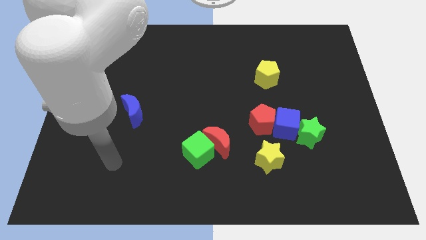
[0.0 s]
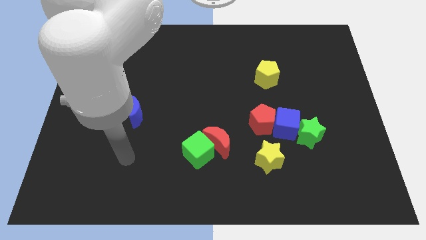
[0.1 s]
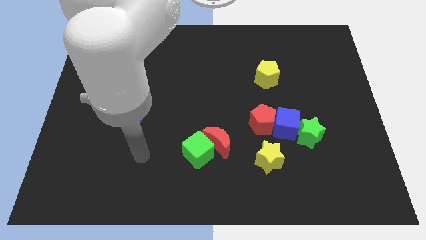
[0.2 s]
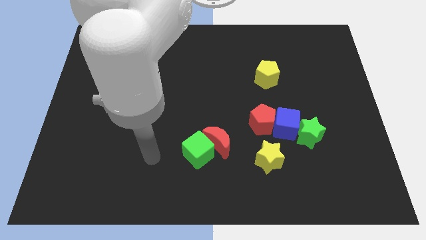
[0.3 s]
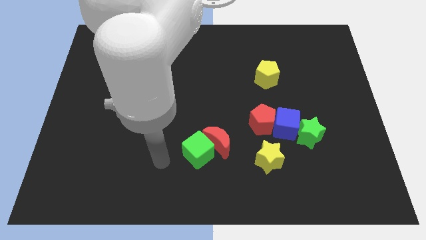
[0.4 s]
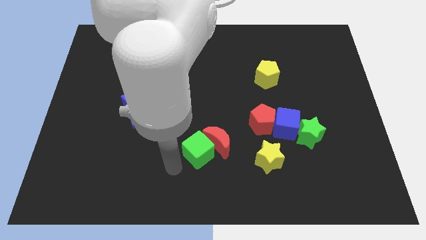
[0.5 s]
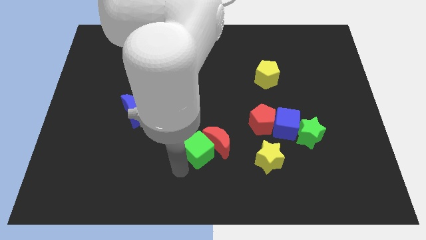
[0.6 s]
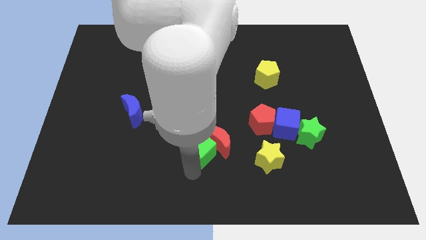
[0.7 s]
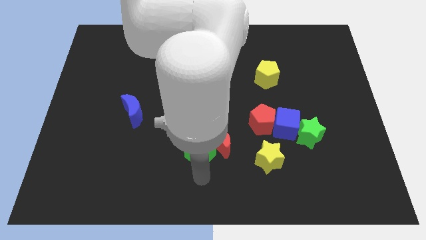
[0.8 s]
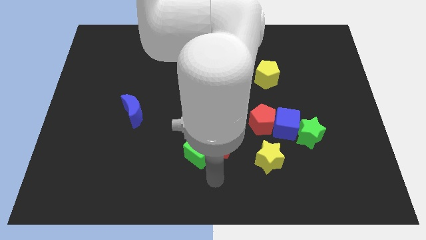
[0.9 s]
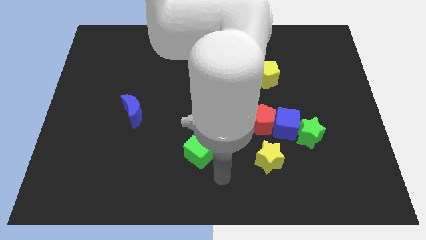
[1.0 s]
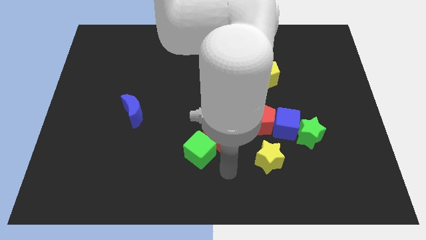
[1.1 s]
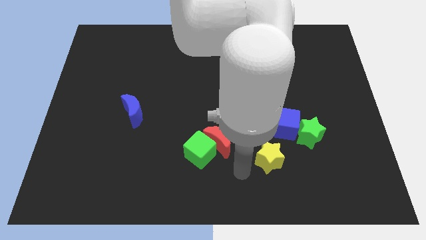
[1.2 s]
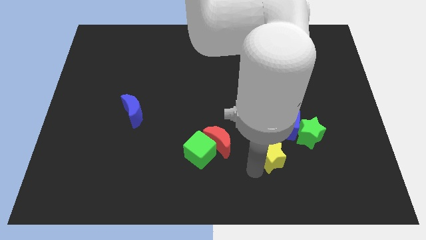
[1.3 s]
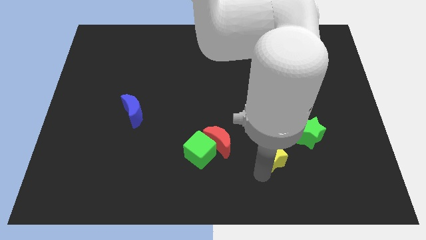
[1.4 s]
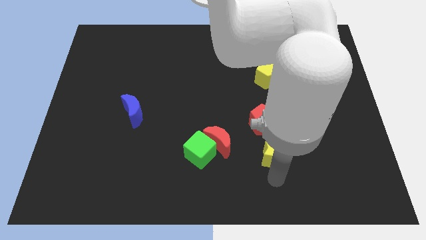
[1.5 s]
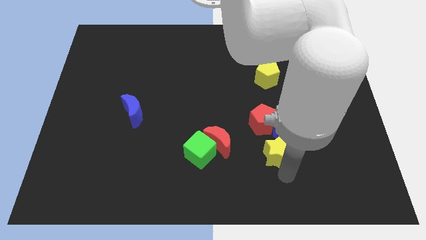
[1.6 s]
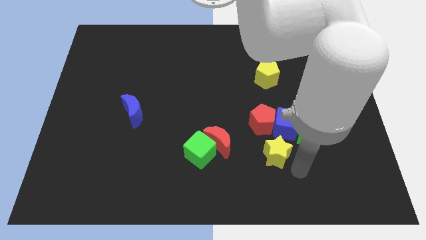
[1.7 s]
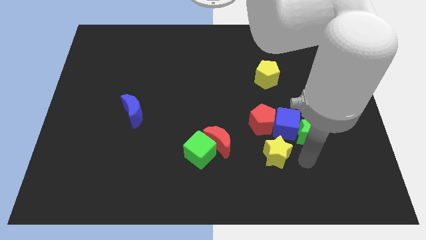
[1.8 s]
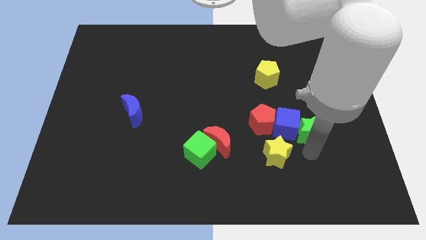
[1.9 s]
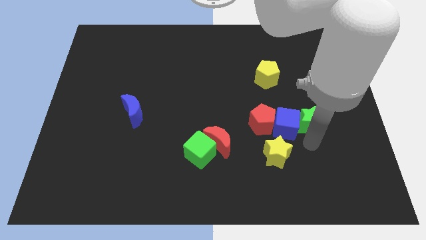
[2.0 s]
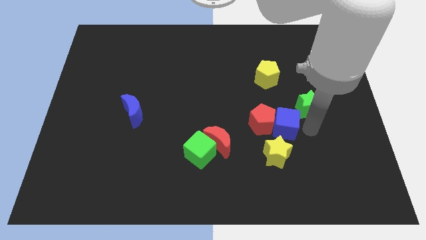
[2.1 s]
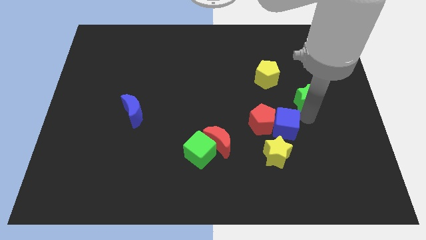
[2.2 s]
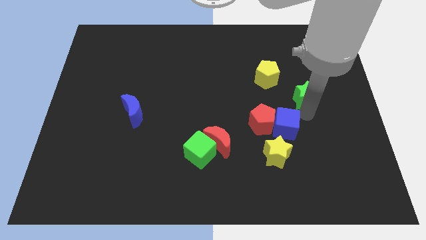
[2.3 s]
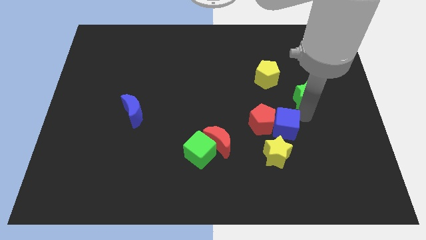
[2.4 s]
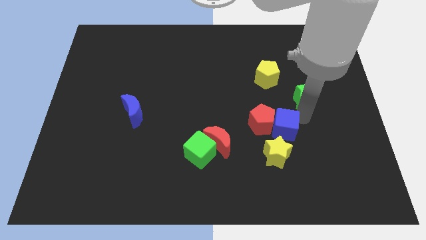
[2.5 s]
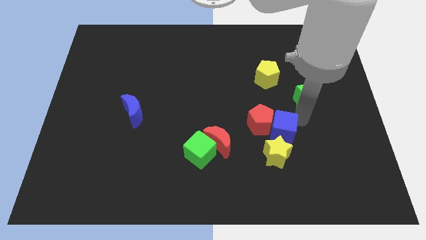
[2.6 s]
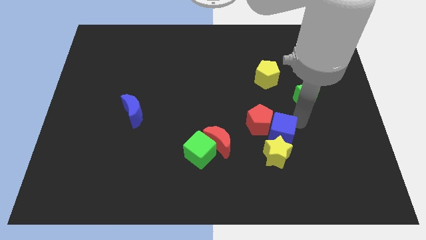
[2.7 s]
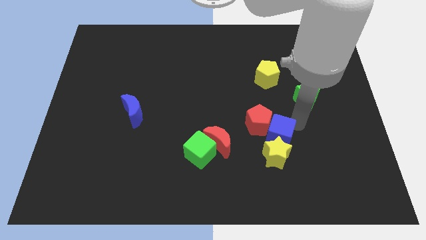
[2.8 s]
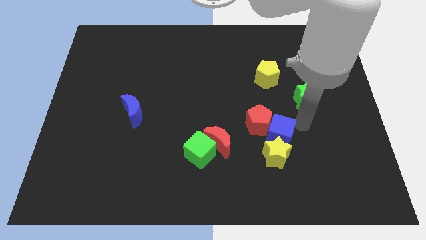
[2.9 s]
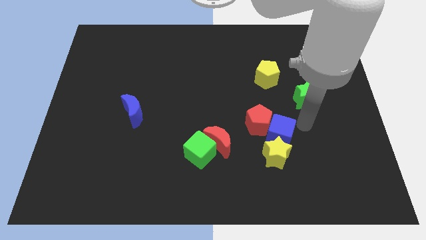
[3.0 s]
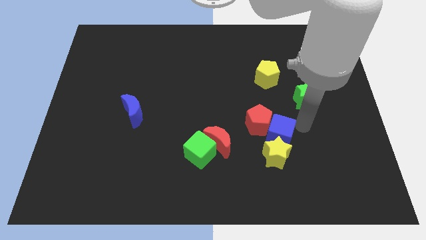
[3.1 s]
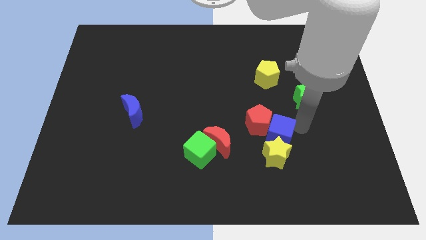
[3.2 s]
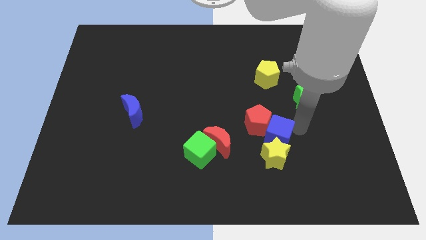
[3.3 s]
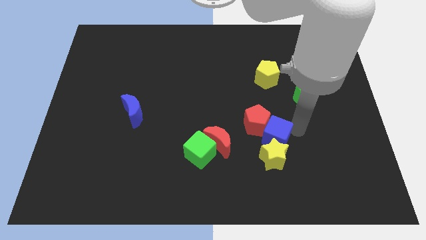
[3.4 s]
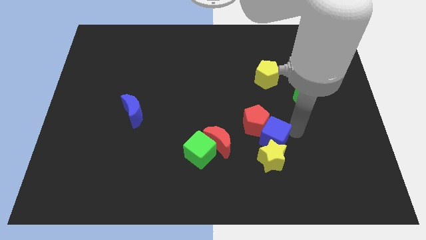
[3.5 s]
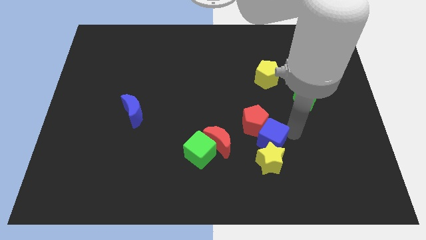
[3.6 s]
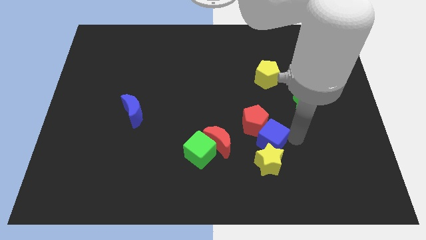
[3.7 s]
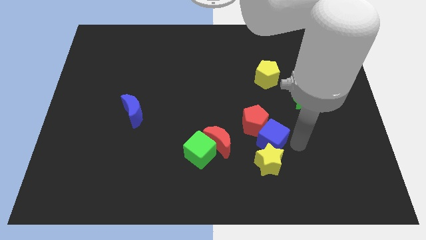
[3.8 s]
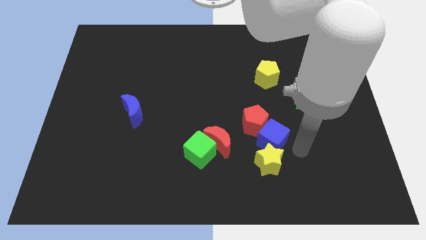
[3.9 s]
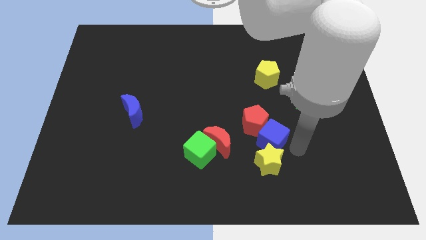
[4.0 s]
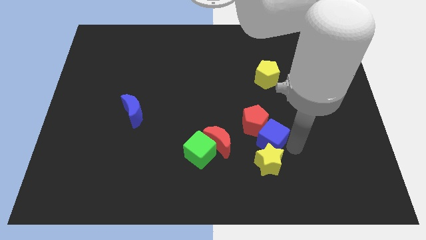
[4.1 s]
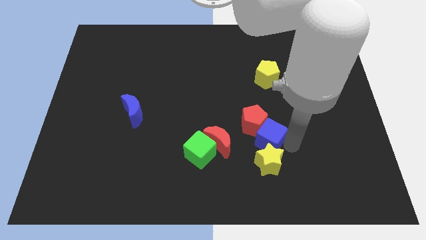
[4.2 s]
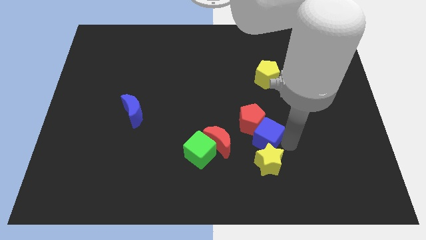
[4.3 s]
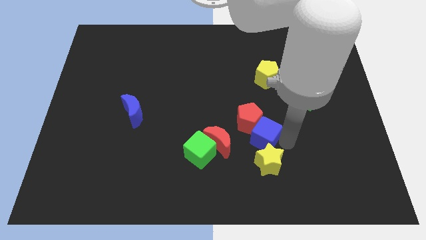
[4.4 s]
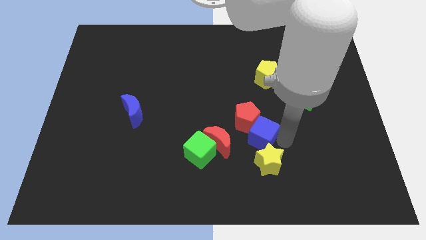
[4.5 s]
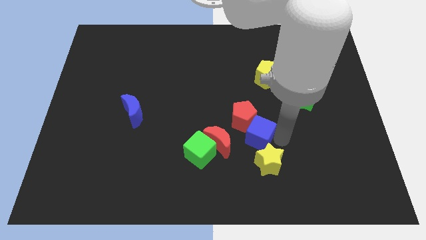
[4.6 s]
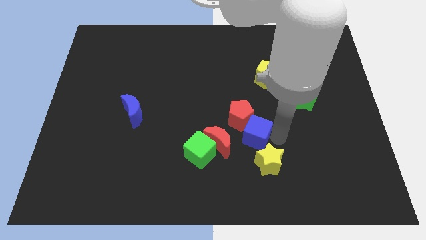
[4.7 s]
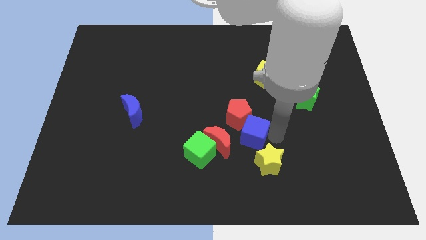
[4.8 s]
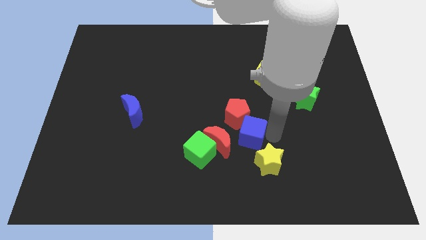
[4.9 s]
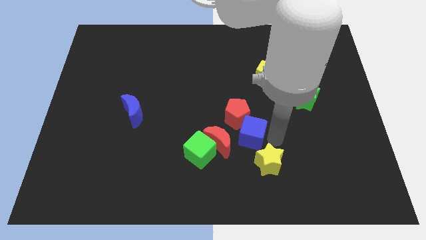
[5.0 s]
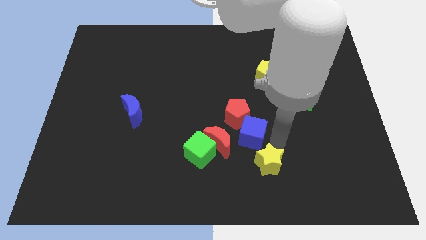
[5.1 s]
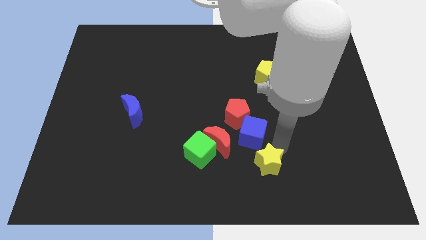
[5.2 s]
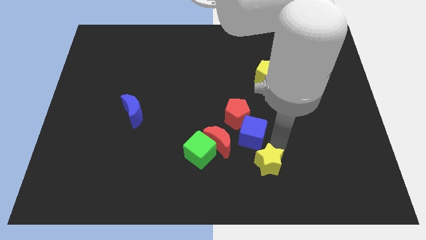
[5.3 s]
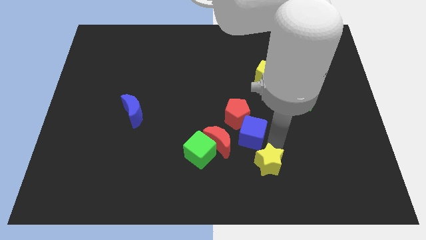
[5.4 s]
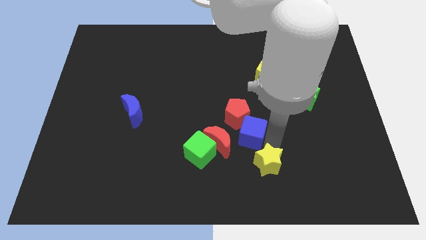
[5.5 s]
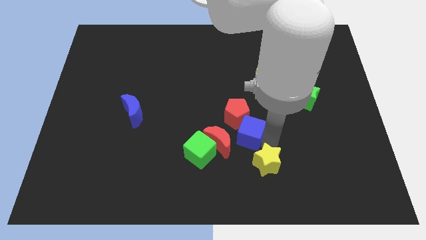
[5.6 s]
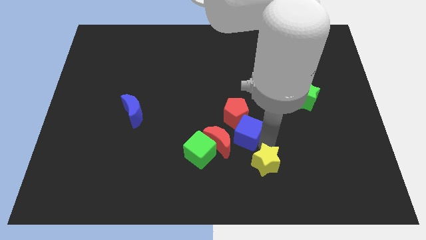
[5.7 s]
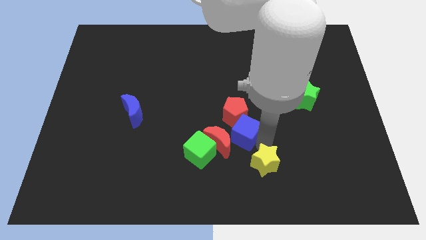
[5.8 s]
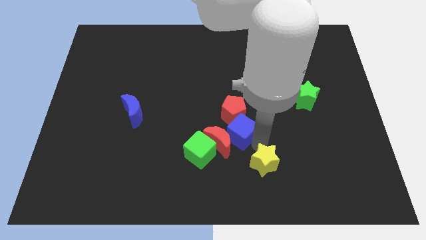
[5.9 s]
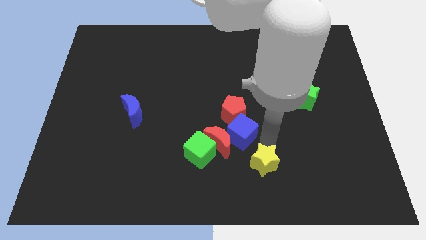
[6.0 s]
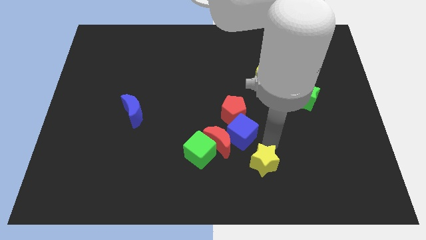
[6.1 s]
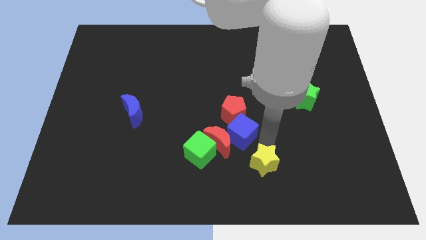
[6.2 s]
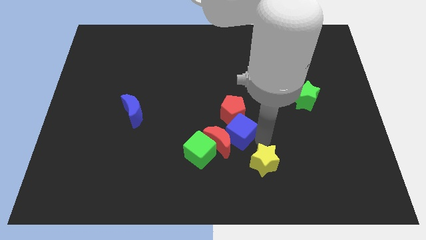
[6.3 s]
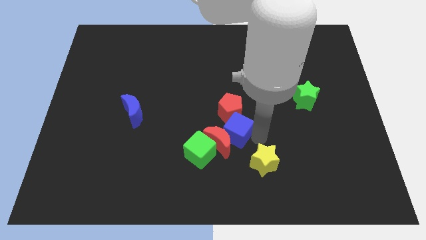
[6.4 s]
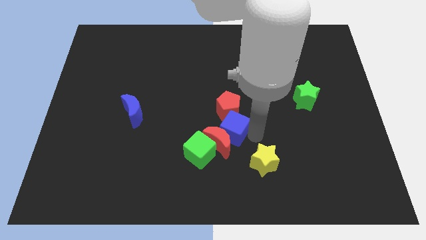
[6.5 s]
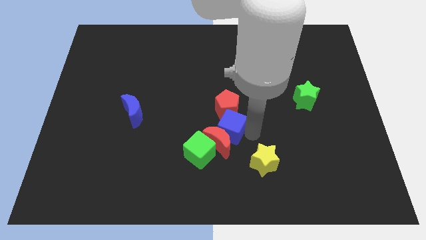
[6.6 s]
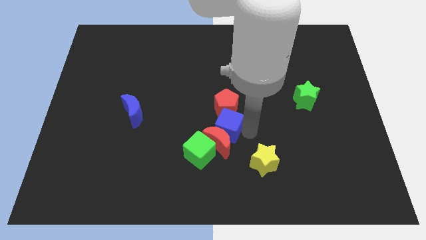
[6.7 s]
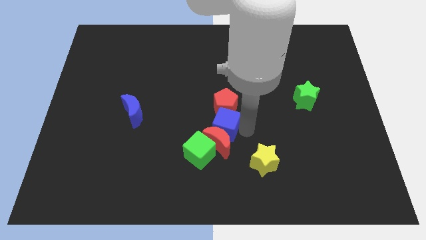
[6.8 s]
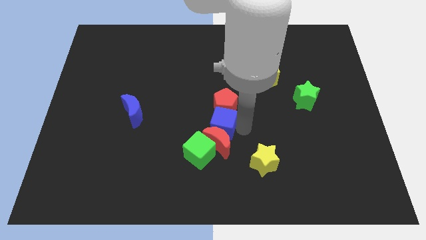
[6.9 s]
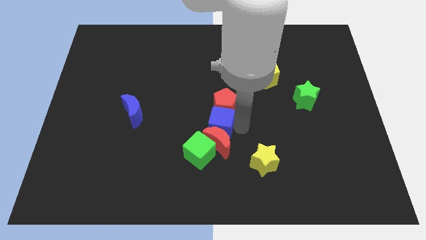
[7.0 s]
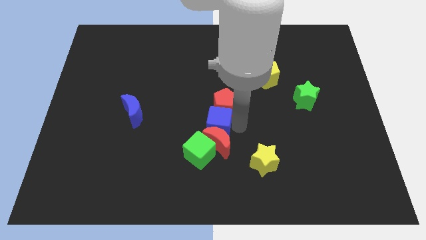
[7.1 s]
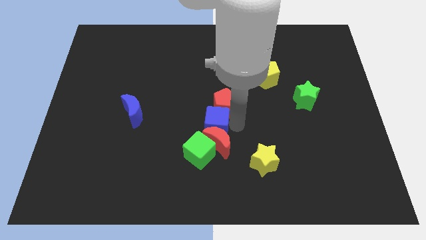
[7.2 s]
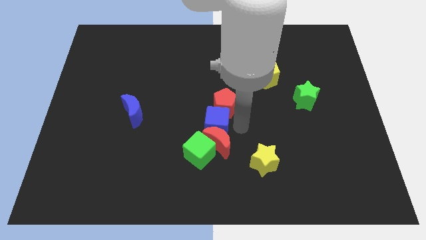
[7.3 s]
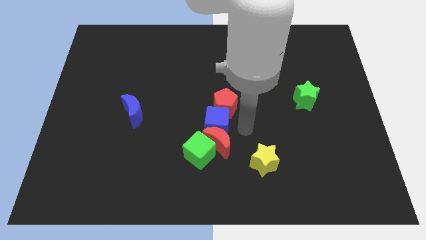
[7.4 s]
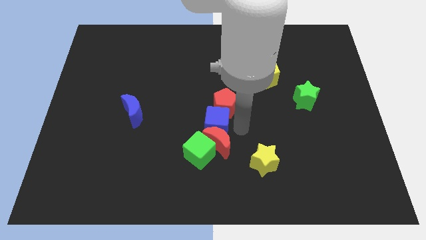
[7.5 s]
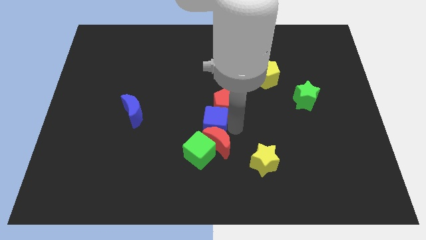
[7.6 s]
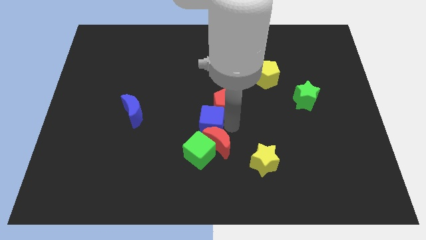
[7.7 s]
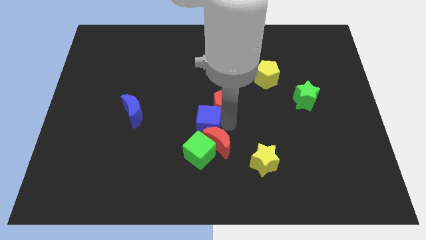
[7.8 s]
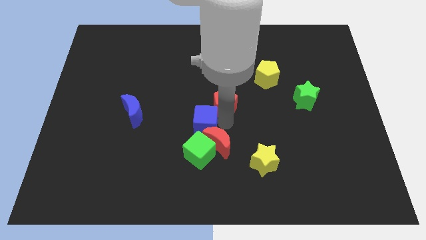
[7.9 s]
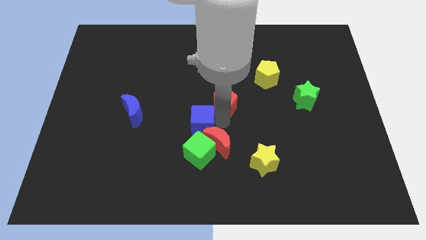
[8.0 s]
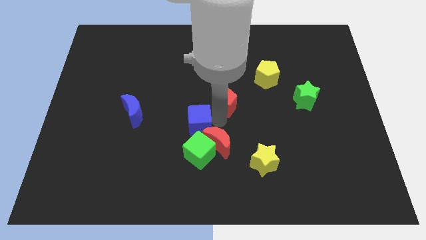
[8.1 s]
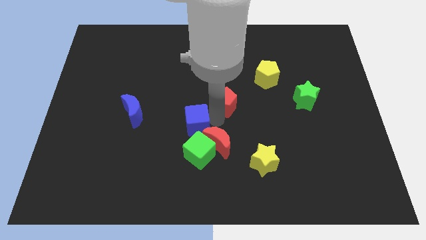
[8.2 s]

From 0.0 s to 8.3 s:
slide the blue cube left
